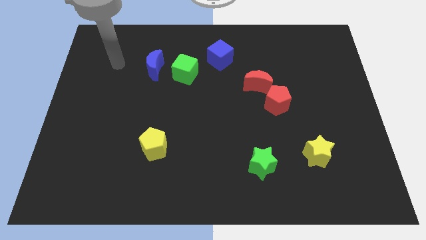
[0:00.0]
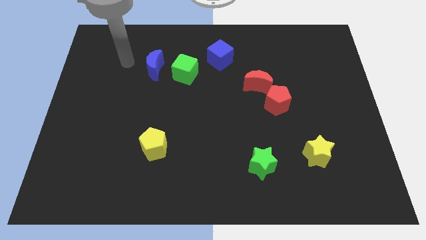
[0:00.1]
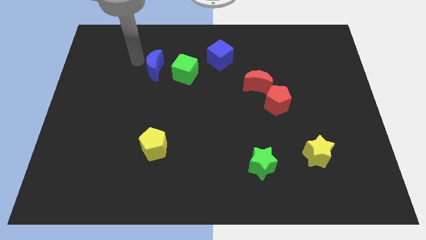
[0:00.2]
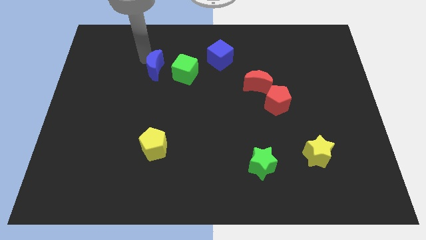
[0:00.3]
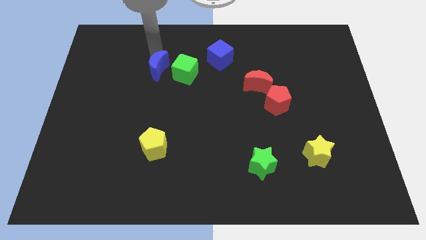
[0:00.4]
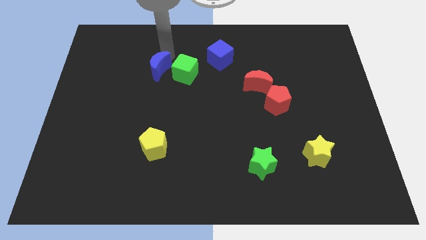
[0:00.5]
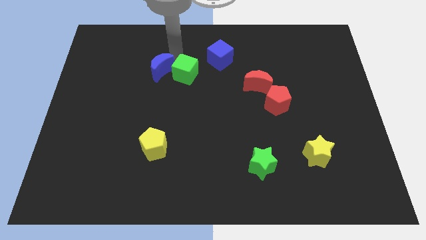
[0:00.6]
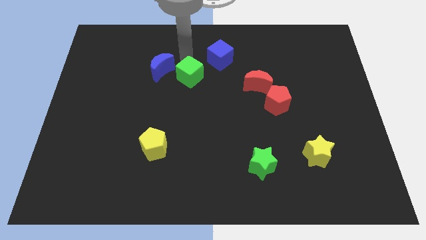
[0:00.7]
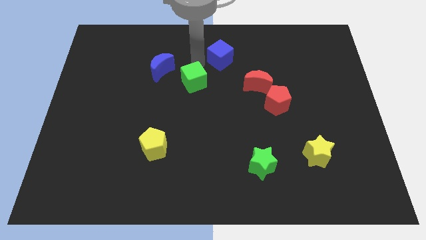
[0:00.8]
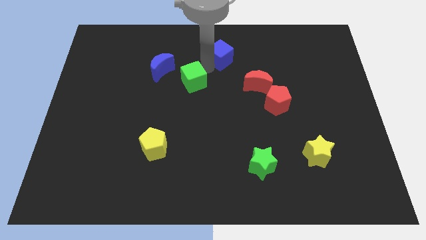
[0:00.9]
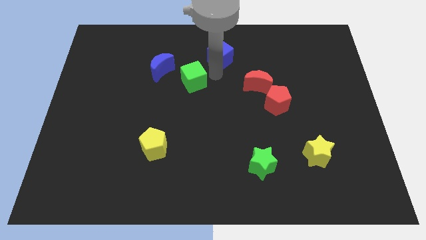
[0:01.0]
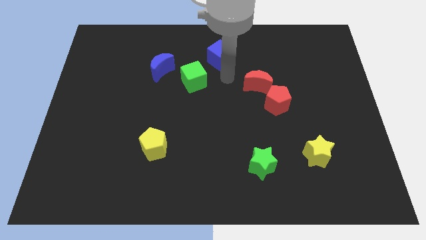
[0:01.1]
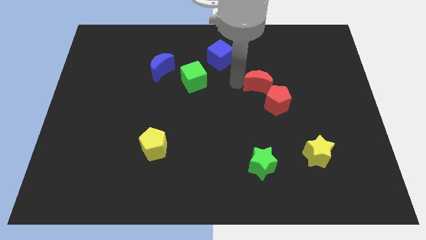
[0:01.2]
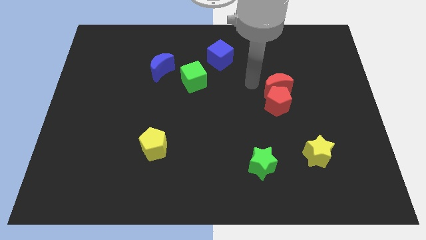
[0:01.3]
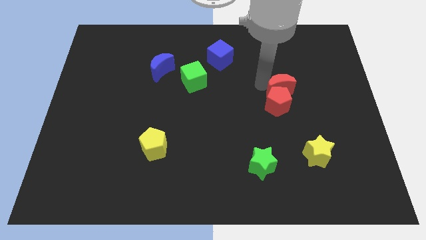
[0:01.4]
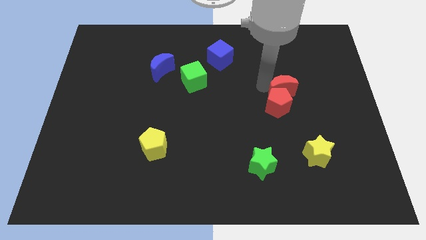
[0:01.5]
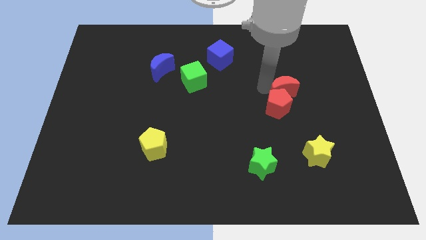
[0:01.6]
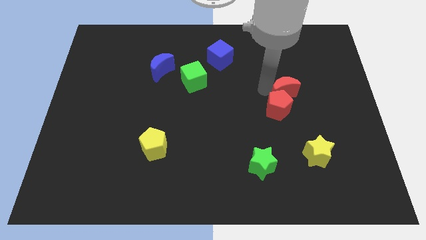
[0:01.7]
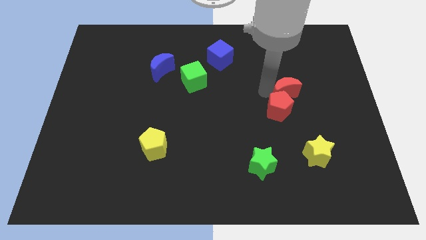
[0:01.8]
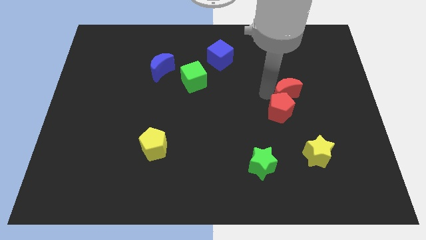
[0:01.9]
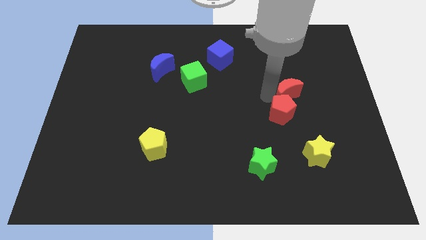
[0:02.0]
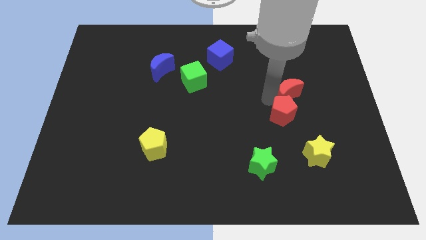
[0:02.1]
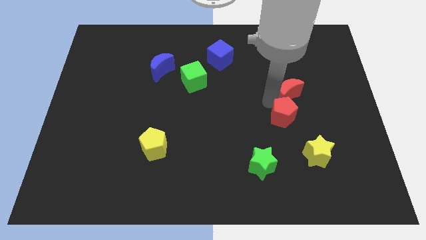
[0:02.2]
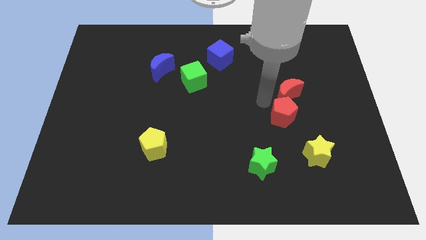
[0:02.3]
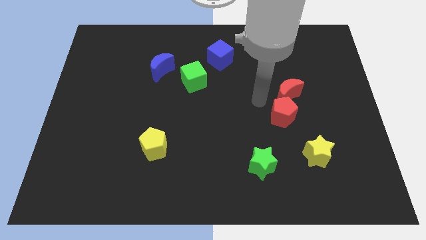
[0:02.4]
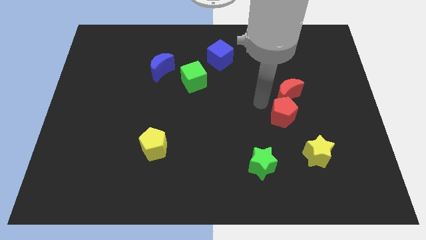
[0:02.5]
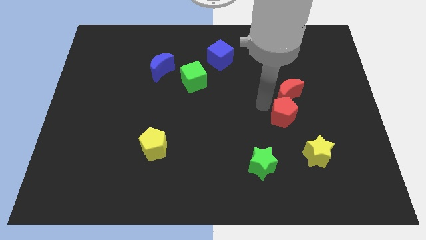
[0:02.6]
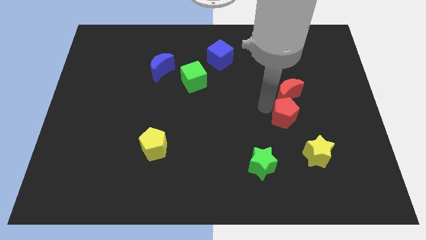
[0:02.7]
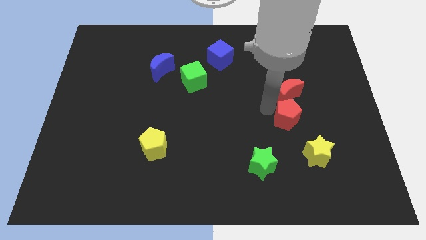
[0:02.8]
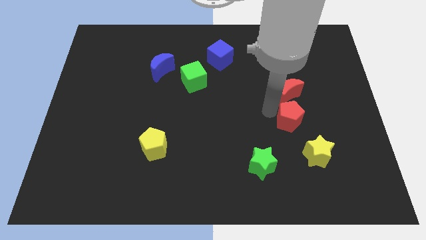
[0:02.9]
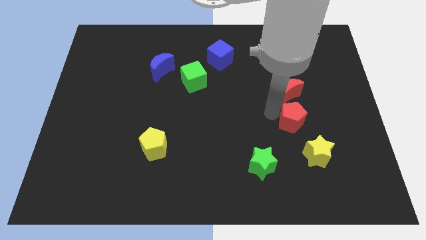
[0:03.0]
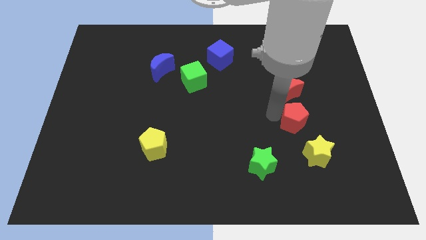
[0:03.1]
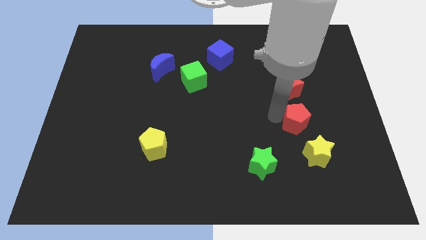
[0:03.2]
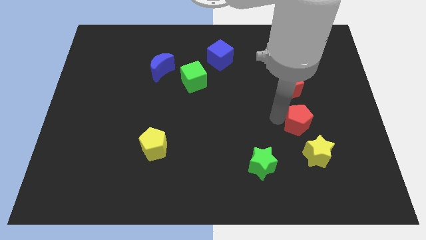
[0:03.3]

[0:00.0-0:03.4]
slightly move the red pentagon down and to the right diagonally

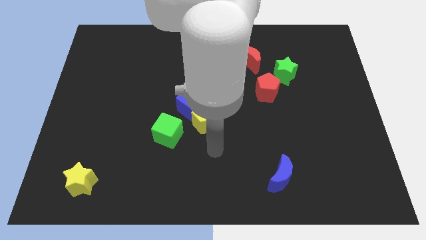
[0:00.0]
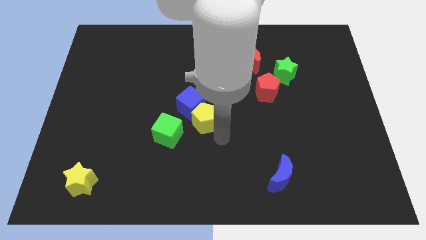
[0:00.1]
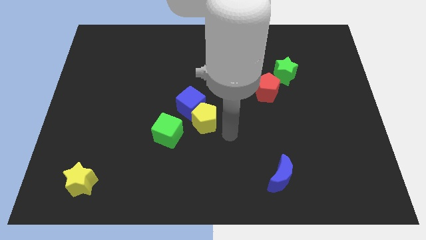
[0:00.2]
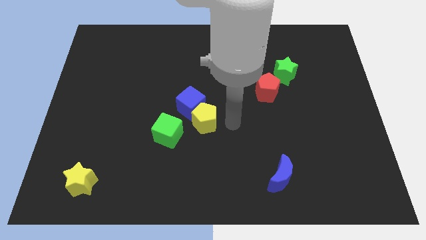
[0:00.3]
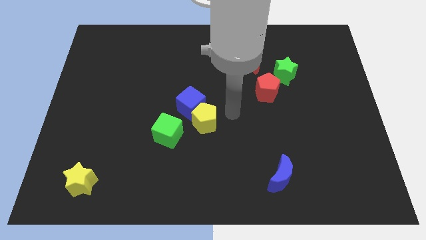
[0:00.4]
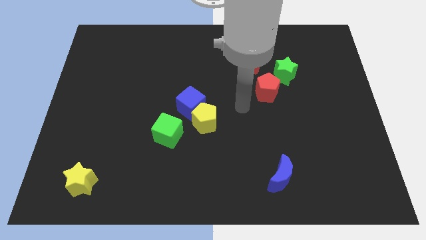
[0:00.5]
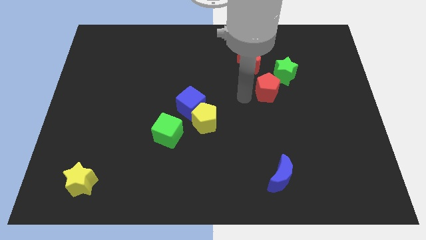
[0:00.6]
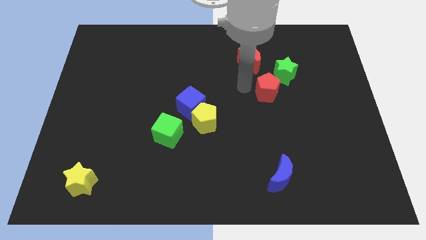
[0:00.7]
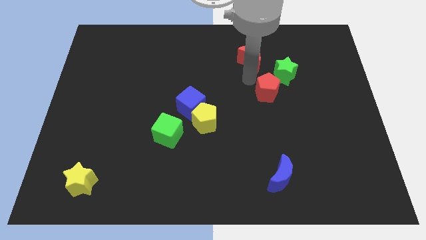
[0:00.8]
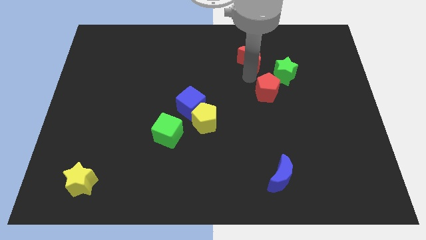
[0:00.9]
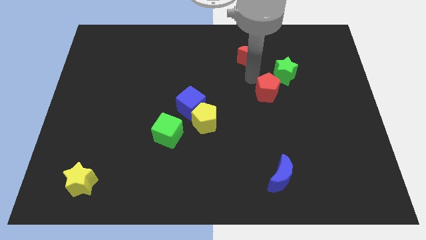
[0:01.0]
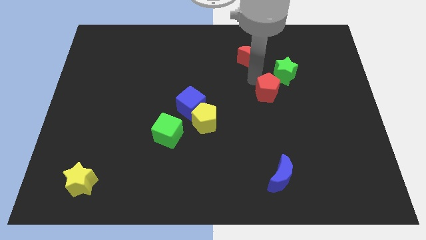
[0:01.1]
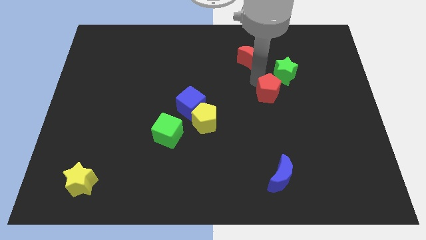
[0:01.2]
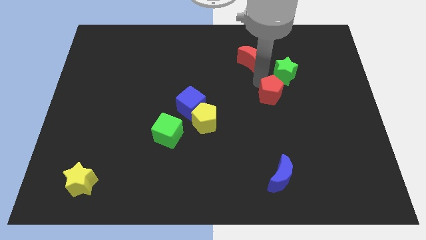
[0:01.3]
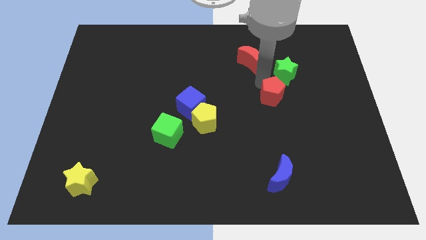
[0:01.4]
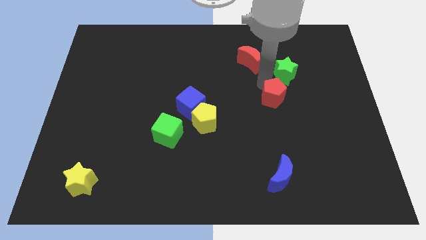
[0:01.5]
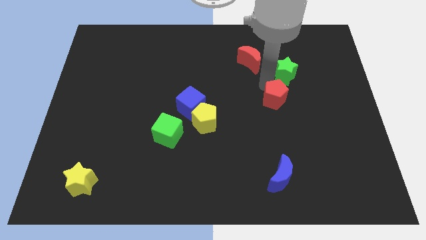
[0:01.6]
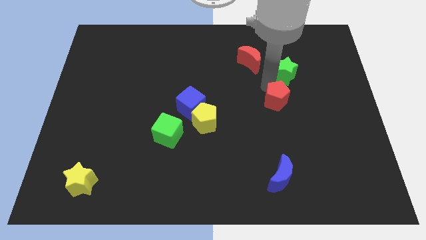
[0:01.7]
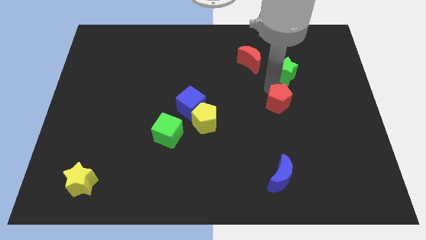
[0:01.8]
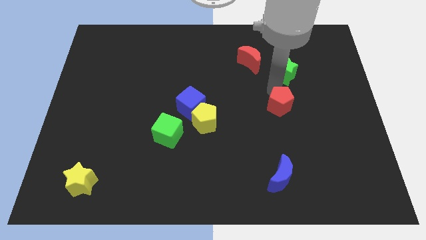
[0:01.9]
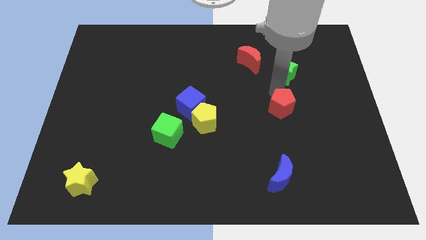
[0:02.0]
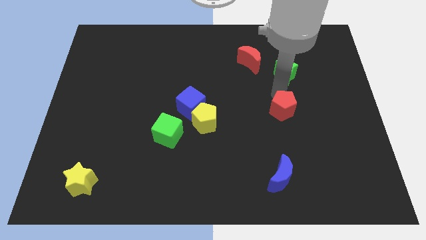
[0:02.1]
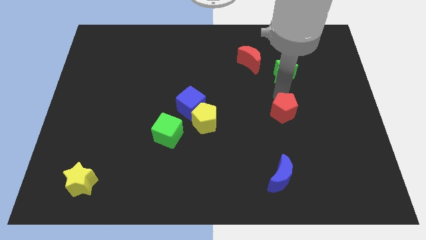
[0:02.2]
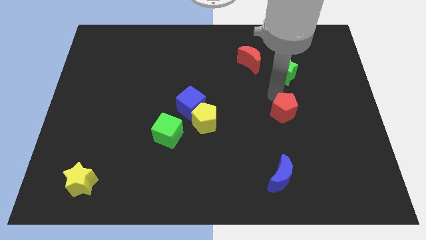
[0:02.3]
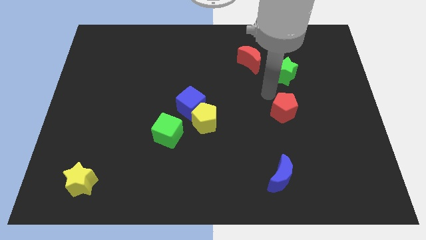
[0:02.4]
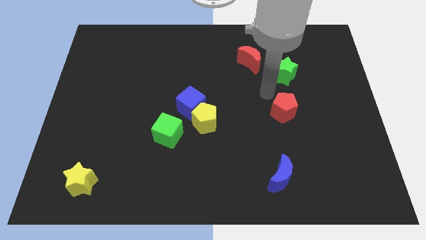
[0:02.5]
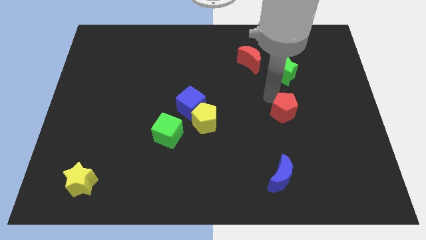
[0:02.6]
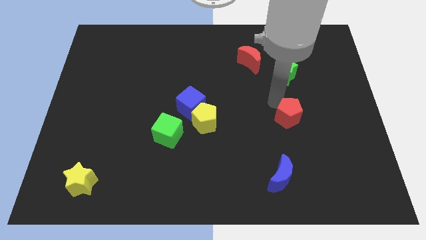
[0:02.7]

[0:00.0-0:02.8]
slightly slide the red pentagon downwards and then right

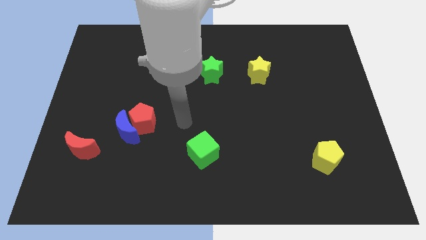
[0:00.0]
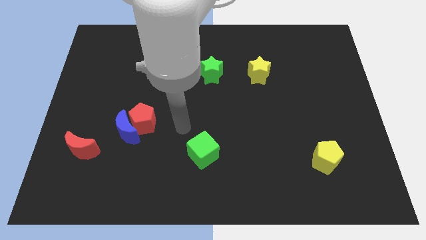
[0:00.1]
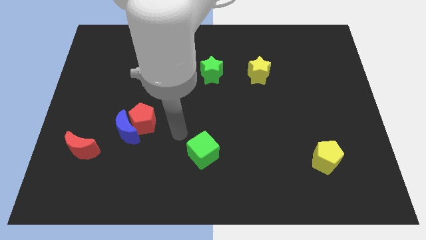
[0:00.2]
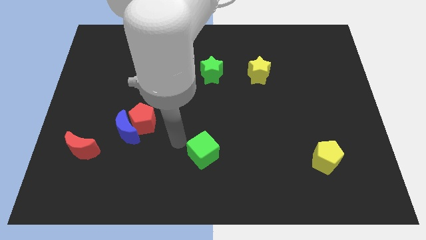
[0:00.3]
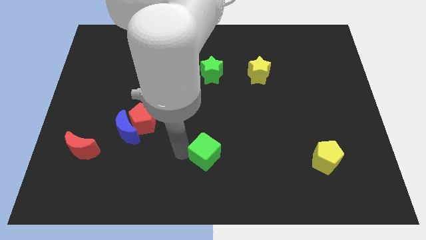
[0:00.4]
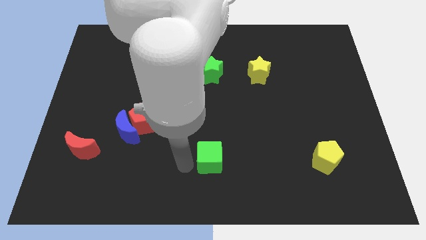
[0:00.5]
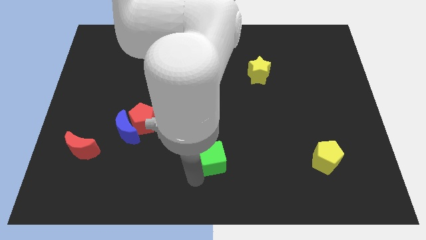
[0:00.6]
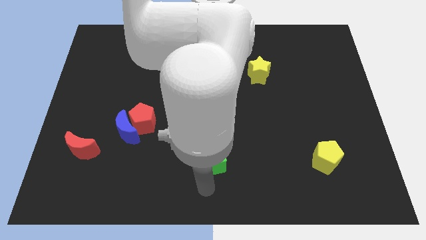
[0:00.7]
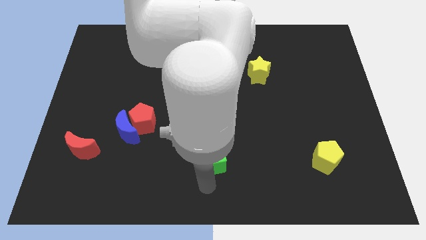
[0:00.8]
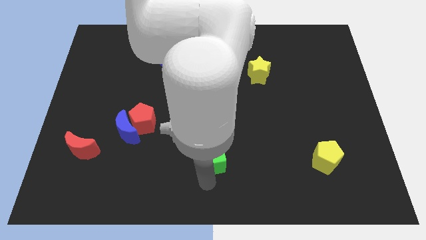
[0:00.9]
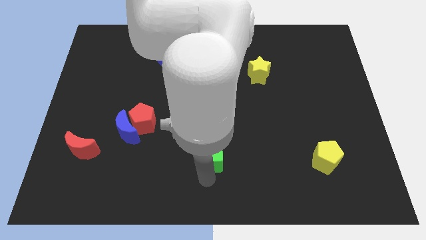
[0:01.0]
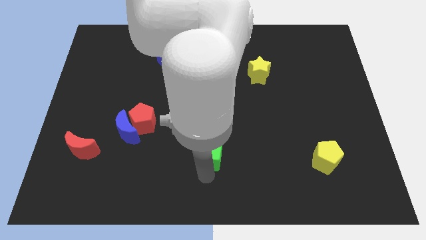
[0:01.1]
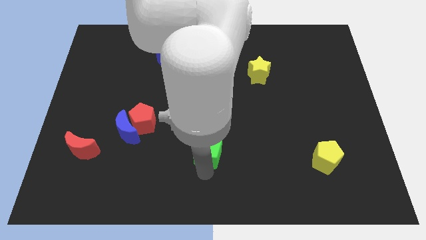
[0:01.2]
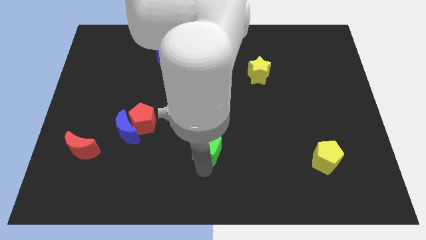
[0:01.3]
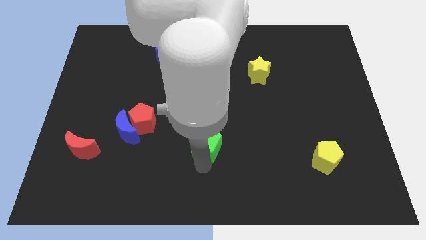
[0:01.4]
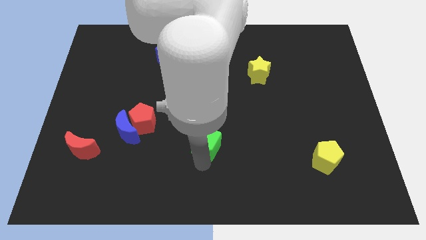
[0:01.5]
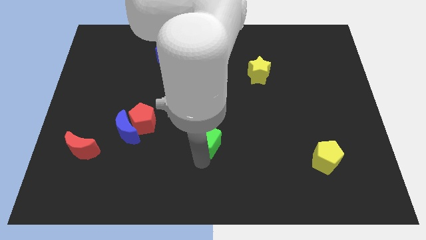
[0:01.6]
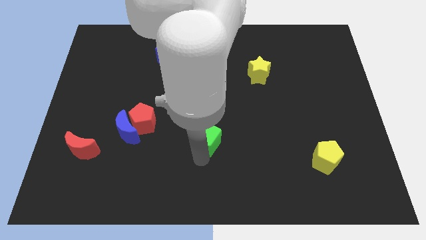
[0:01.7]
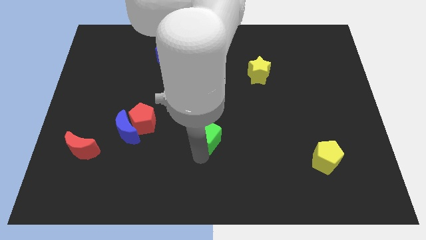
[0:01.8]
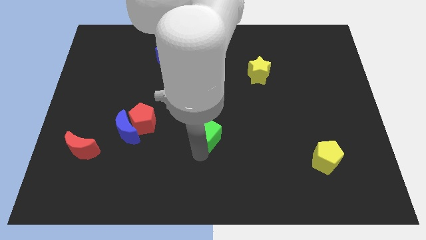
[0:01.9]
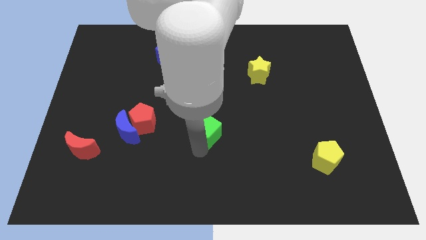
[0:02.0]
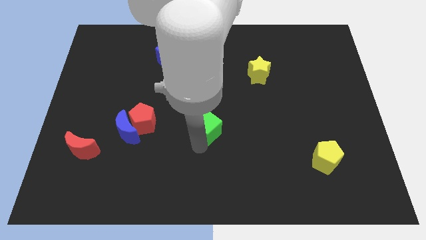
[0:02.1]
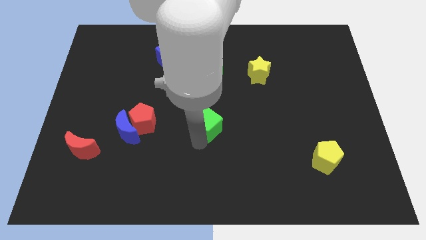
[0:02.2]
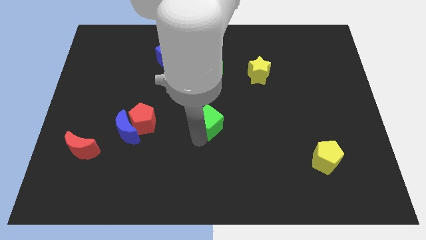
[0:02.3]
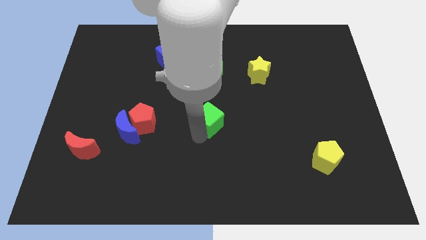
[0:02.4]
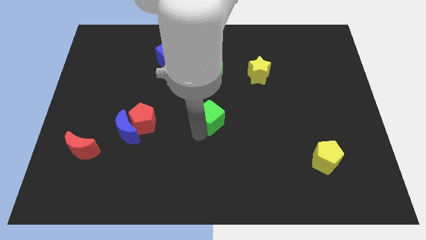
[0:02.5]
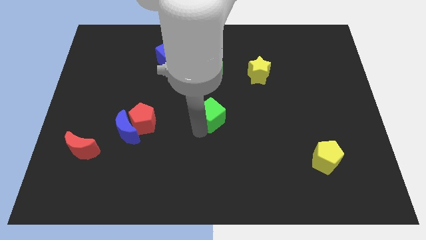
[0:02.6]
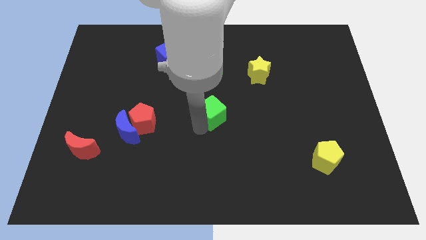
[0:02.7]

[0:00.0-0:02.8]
push the green cube a little upwards and right diagonally
